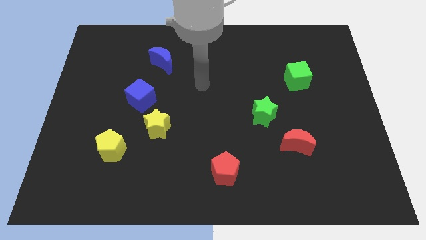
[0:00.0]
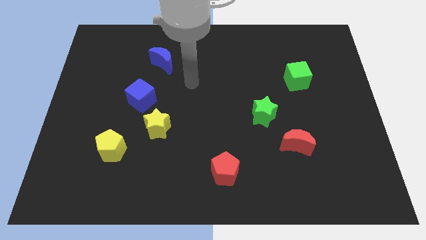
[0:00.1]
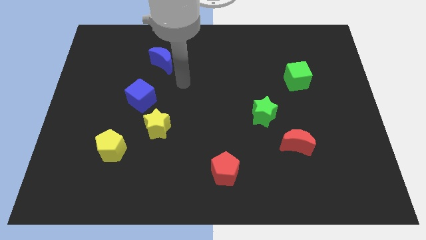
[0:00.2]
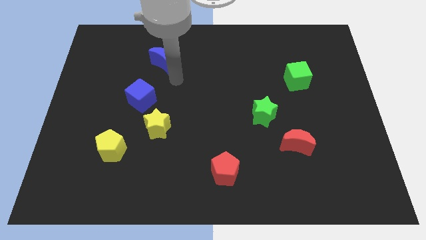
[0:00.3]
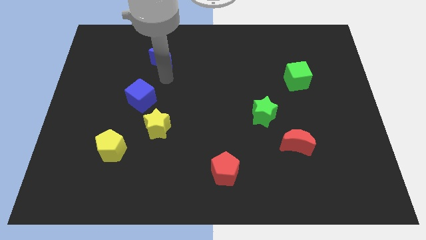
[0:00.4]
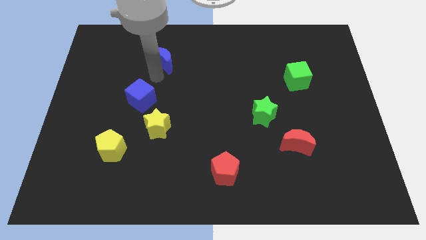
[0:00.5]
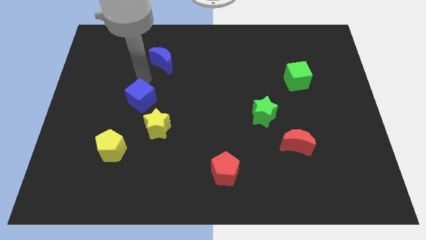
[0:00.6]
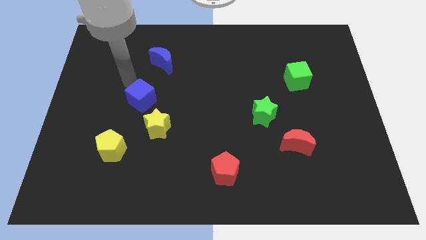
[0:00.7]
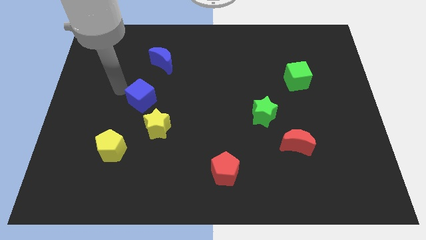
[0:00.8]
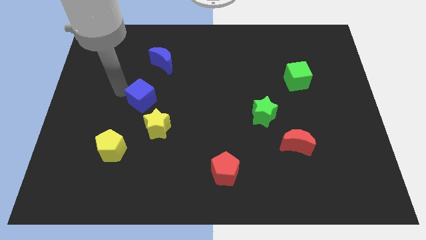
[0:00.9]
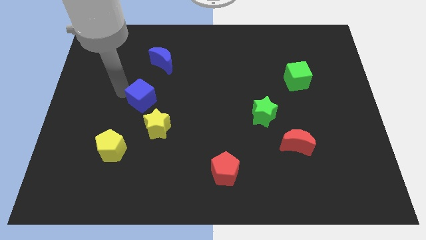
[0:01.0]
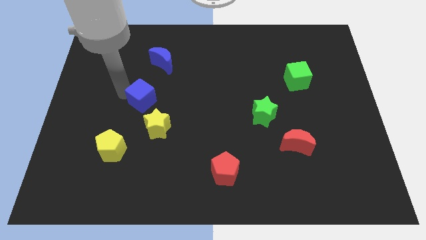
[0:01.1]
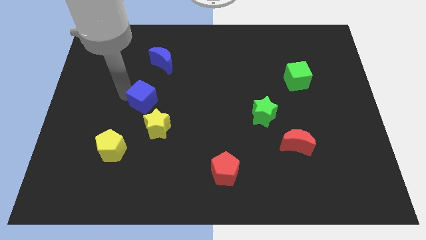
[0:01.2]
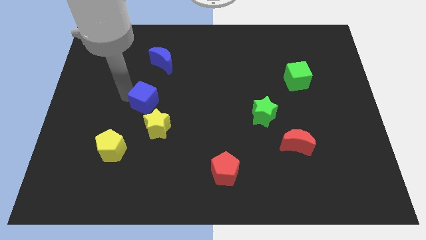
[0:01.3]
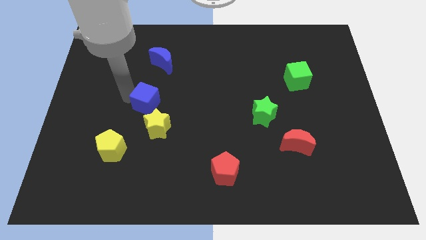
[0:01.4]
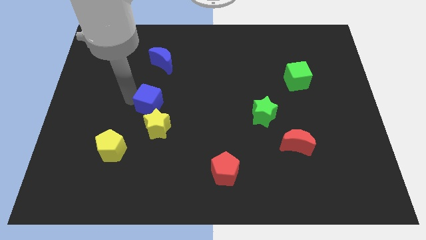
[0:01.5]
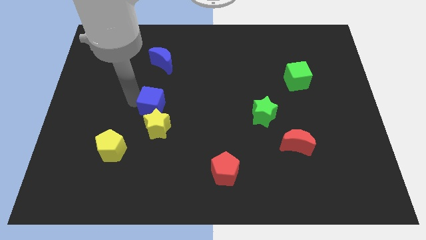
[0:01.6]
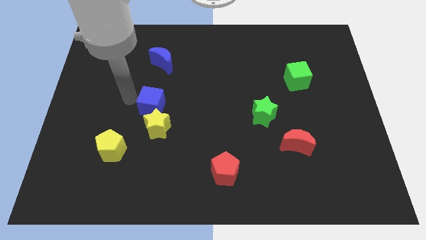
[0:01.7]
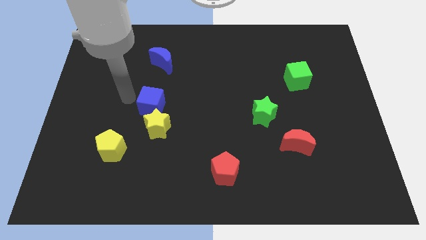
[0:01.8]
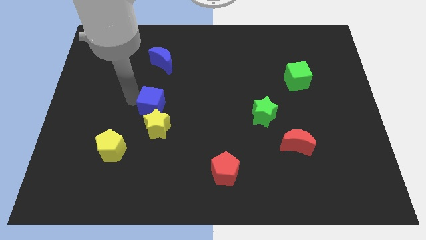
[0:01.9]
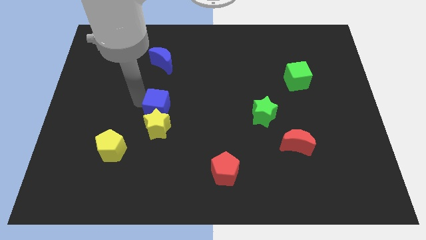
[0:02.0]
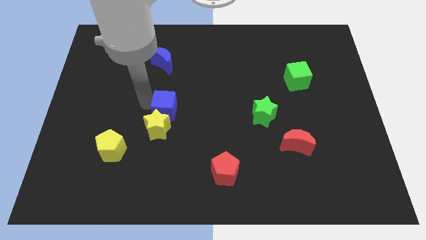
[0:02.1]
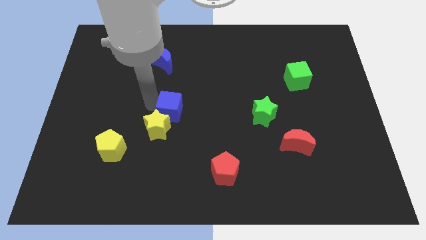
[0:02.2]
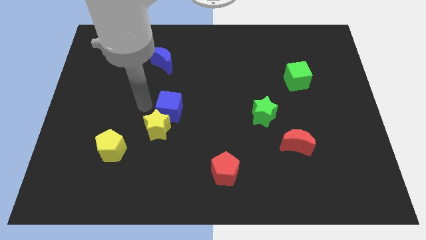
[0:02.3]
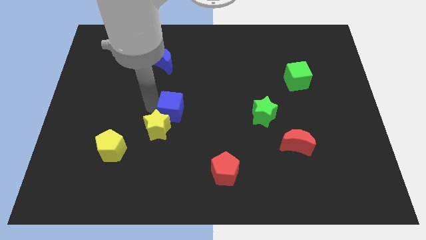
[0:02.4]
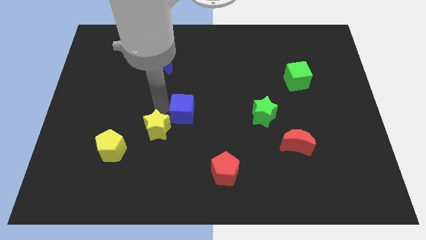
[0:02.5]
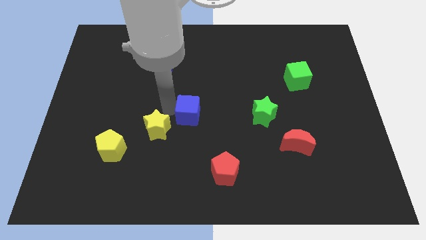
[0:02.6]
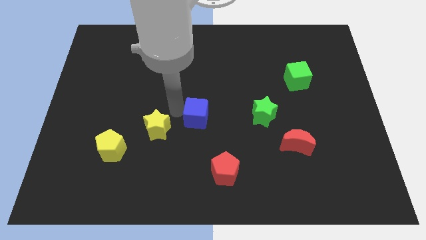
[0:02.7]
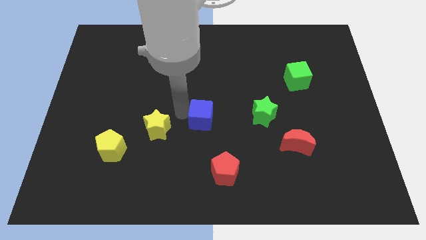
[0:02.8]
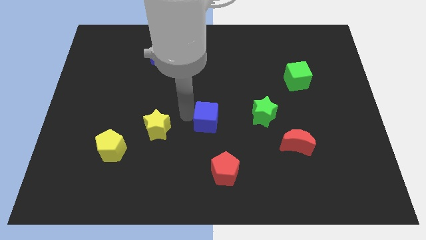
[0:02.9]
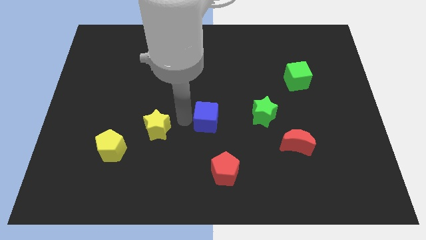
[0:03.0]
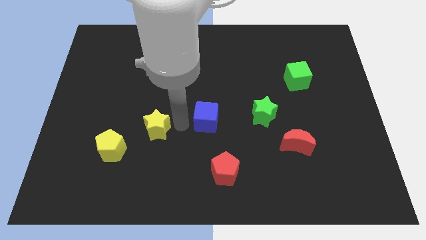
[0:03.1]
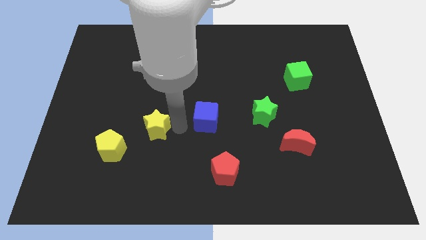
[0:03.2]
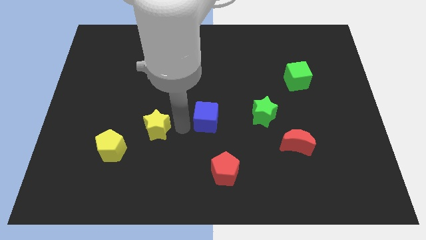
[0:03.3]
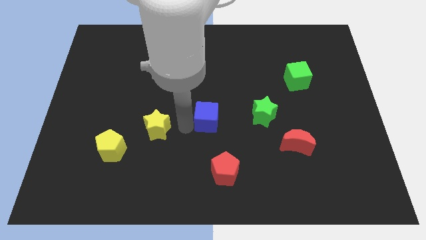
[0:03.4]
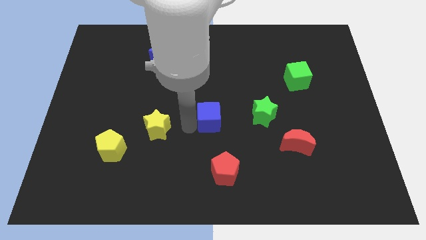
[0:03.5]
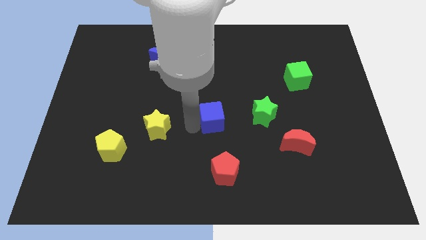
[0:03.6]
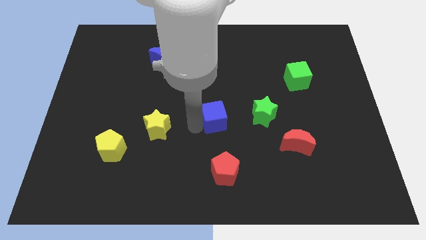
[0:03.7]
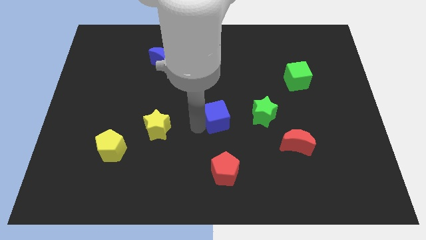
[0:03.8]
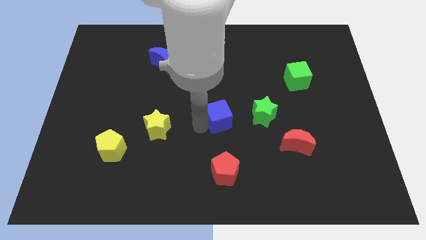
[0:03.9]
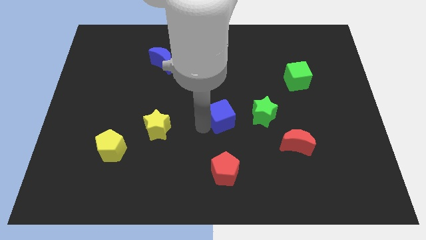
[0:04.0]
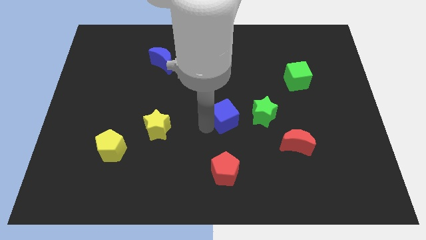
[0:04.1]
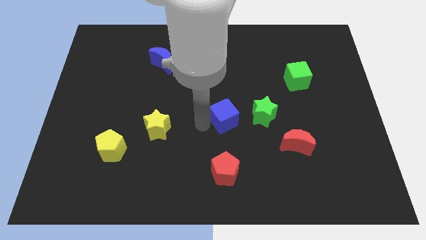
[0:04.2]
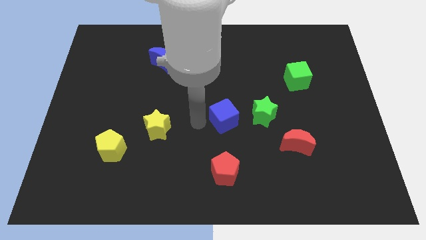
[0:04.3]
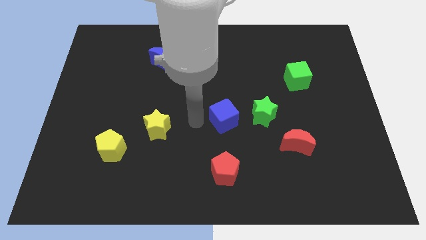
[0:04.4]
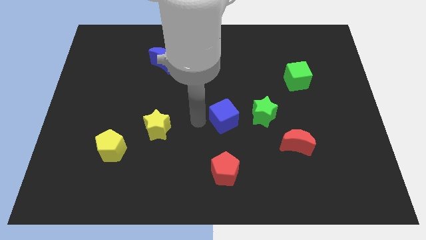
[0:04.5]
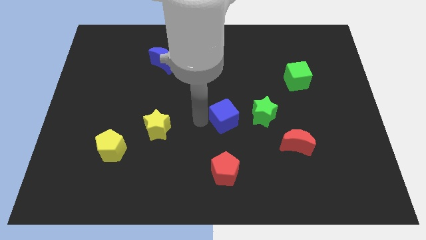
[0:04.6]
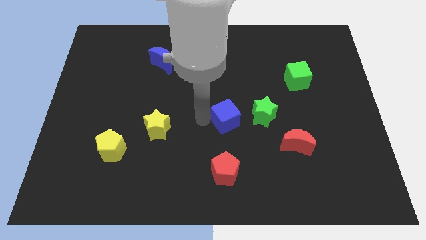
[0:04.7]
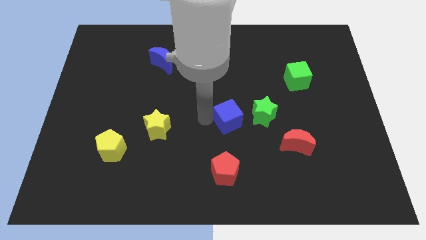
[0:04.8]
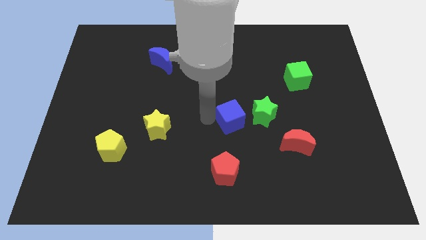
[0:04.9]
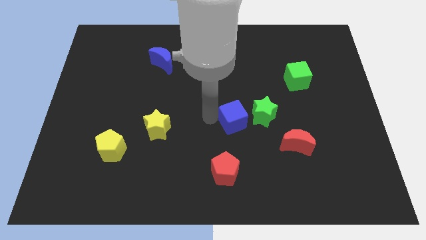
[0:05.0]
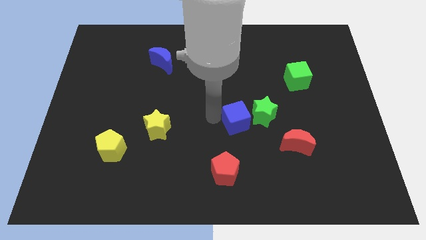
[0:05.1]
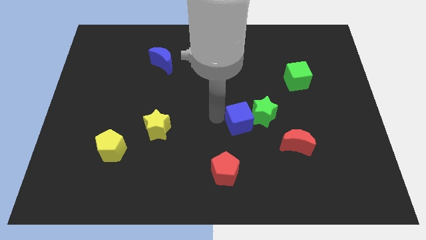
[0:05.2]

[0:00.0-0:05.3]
push the blue cube close to the green star

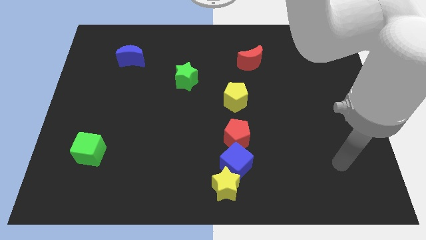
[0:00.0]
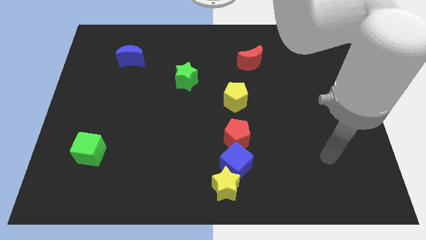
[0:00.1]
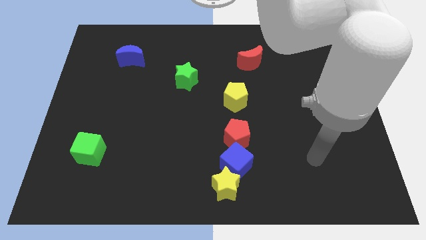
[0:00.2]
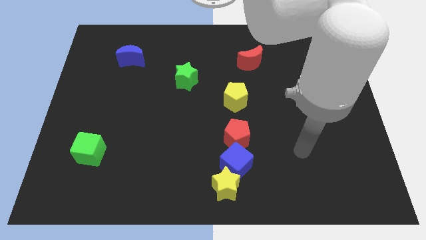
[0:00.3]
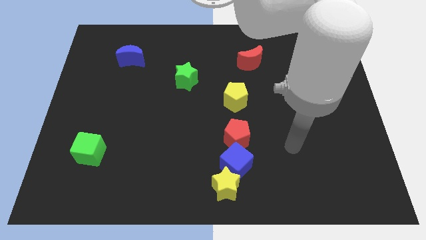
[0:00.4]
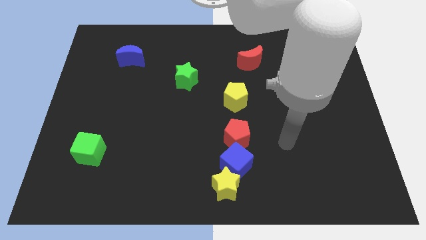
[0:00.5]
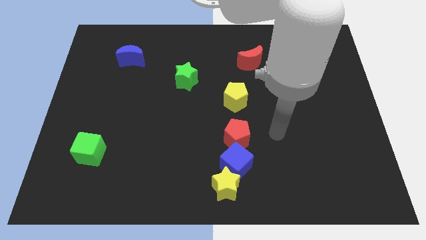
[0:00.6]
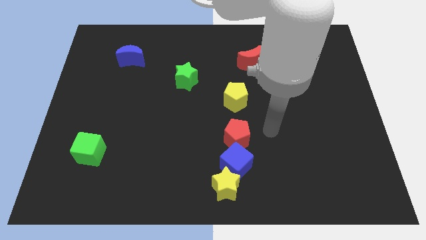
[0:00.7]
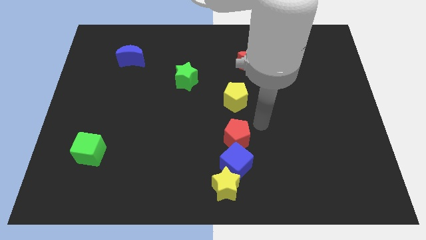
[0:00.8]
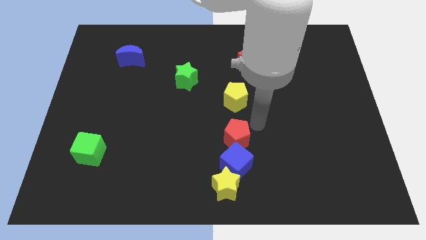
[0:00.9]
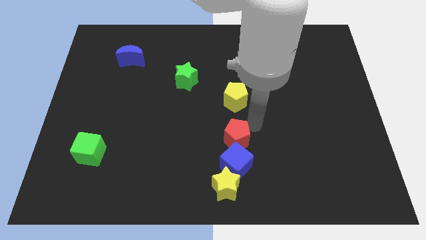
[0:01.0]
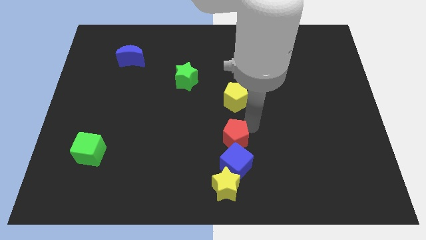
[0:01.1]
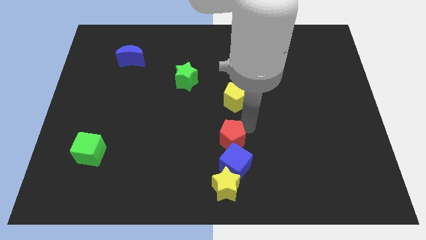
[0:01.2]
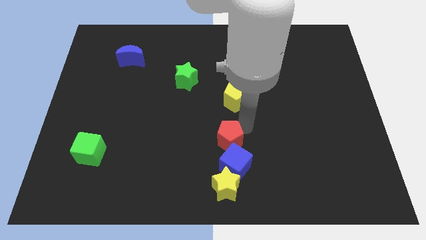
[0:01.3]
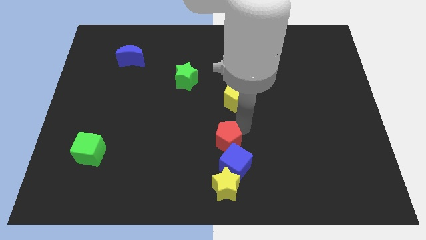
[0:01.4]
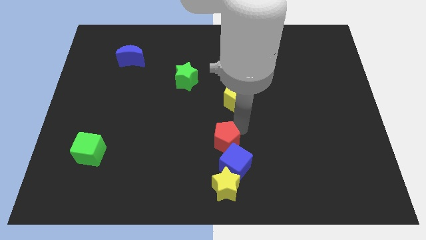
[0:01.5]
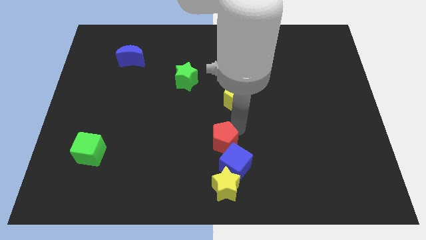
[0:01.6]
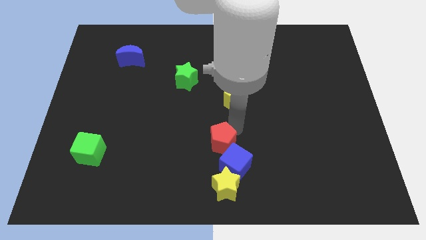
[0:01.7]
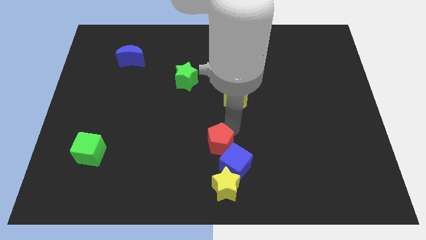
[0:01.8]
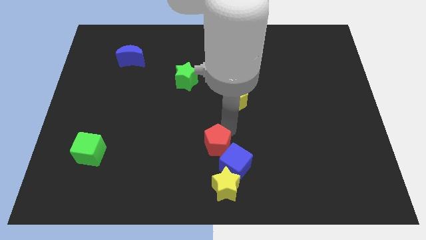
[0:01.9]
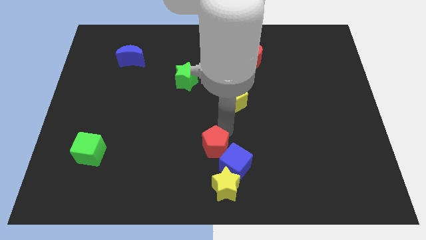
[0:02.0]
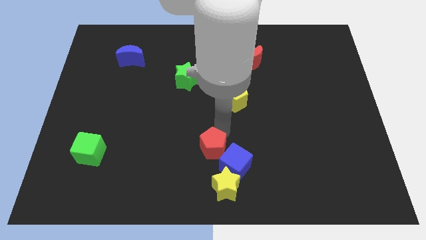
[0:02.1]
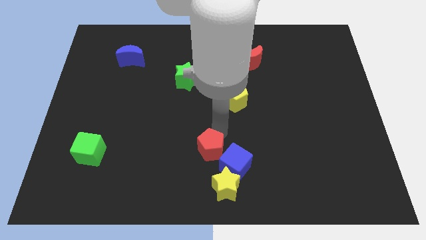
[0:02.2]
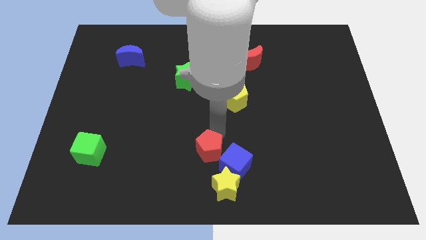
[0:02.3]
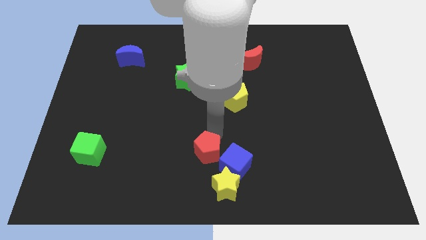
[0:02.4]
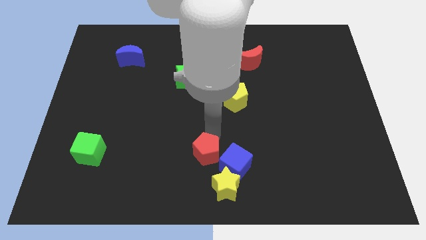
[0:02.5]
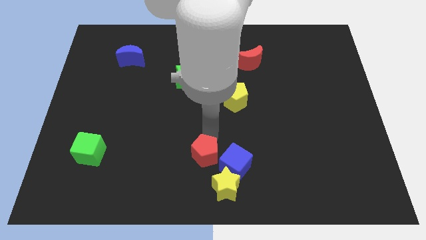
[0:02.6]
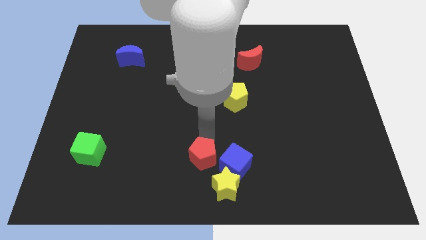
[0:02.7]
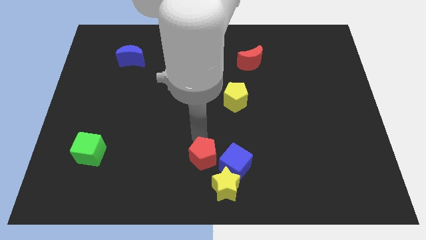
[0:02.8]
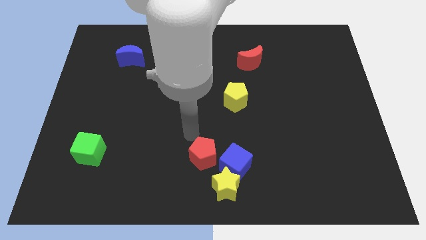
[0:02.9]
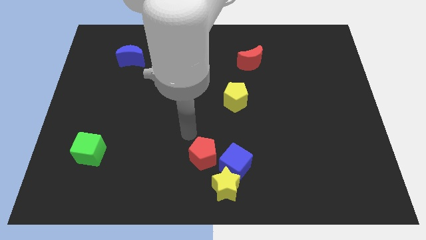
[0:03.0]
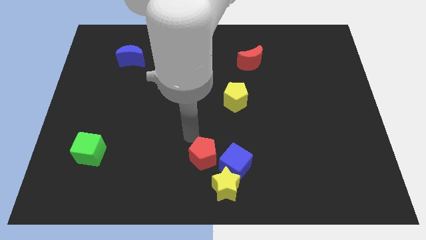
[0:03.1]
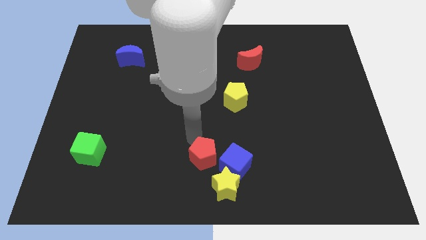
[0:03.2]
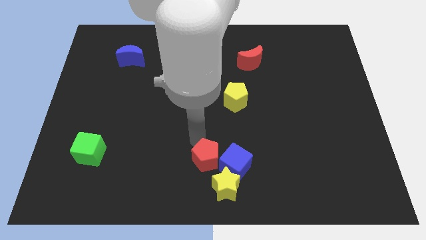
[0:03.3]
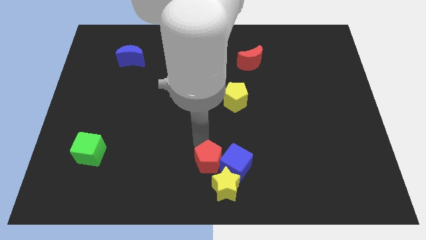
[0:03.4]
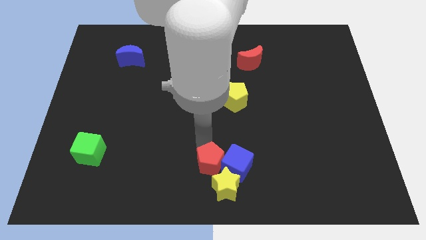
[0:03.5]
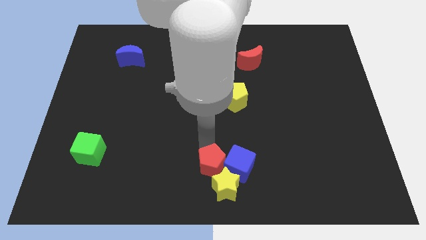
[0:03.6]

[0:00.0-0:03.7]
slide the red pentagon close to the yellow star
